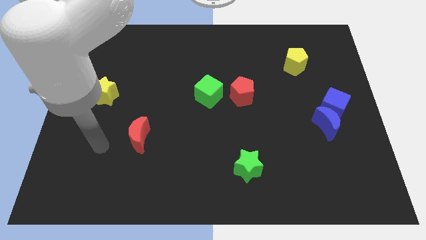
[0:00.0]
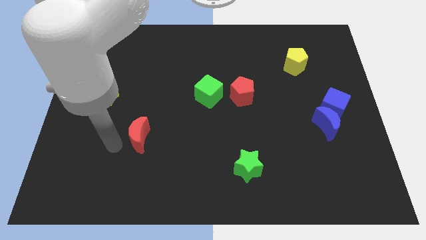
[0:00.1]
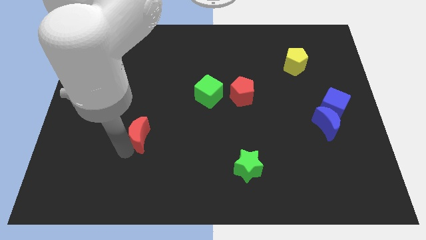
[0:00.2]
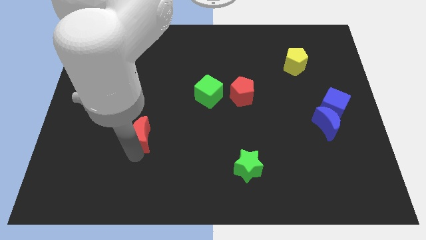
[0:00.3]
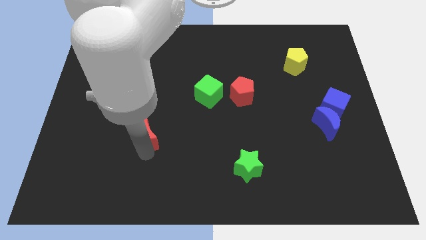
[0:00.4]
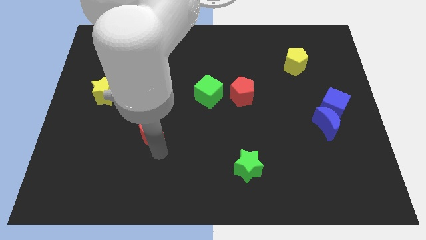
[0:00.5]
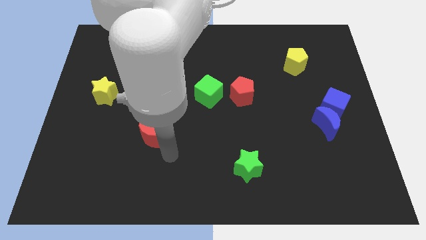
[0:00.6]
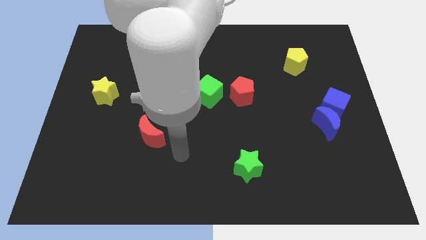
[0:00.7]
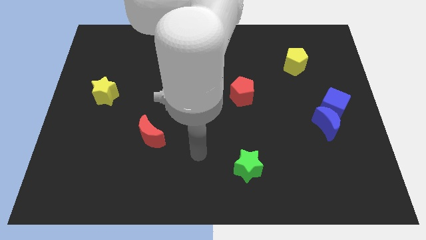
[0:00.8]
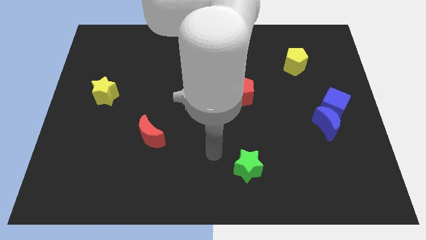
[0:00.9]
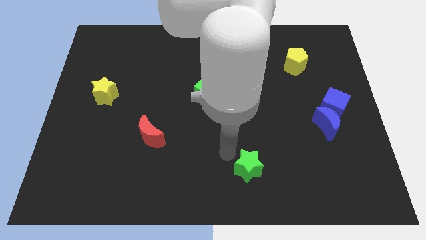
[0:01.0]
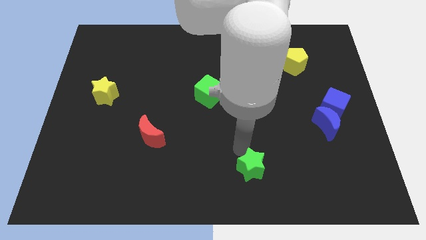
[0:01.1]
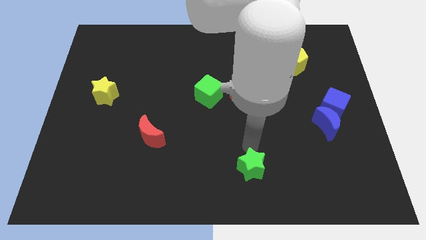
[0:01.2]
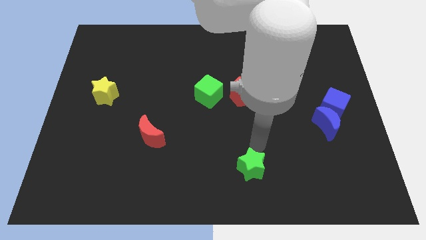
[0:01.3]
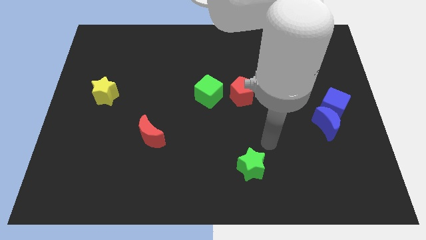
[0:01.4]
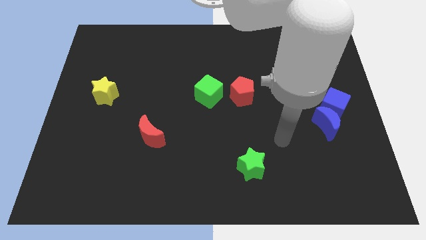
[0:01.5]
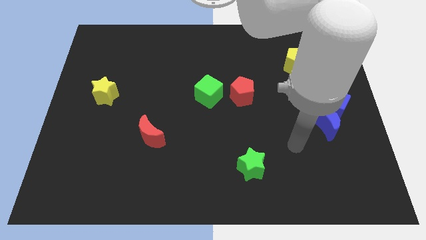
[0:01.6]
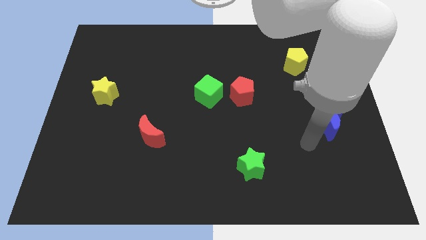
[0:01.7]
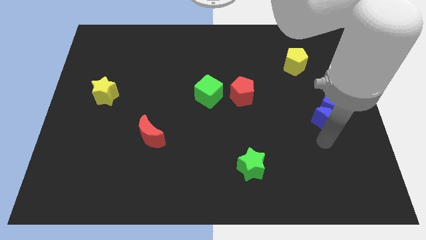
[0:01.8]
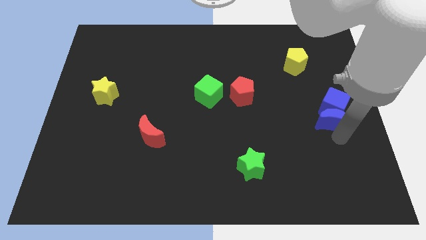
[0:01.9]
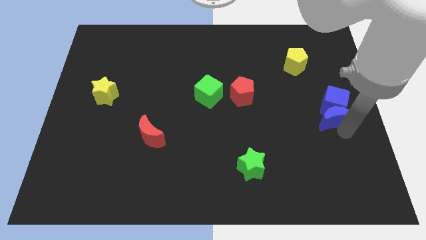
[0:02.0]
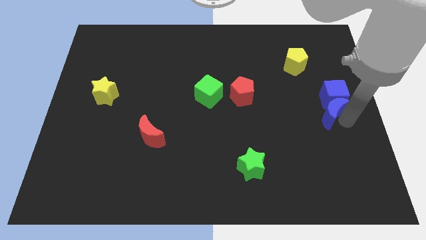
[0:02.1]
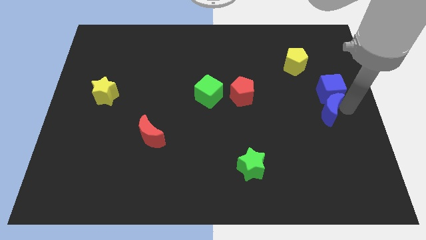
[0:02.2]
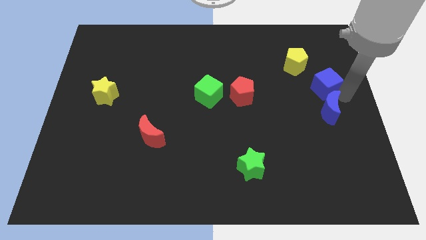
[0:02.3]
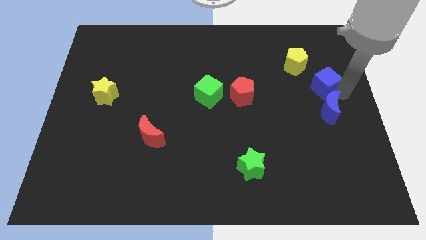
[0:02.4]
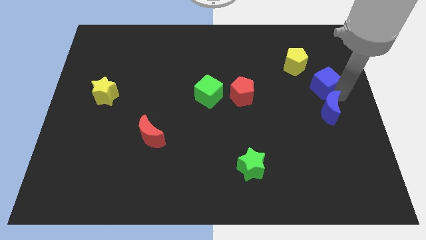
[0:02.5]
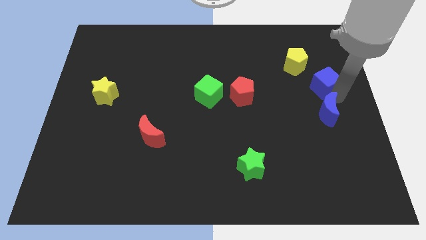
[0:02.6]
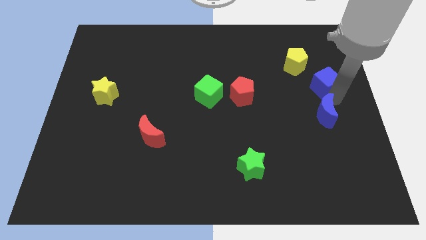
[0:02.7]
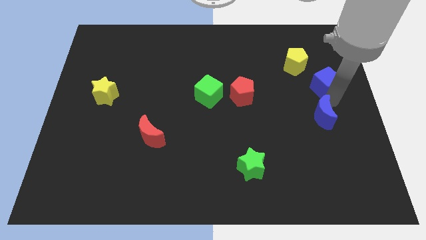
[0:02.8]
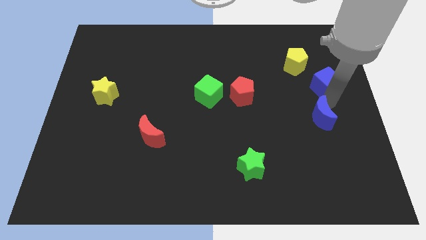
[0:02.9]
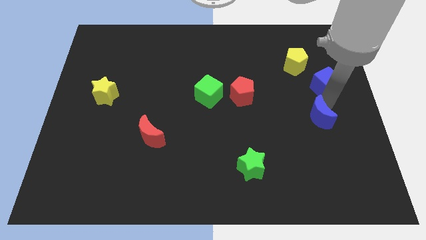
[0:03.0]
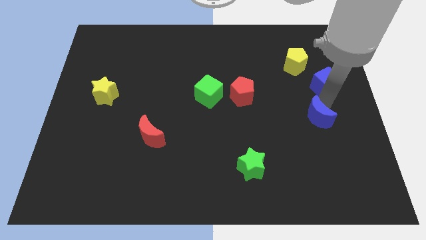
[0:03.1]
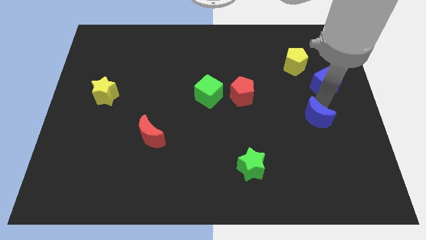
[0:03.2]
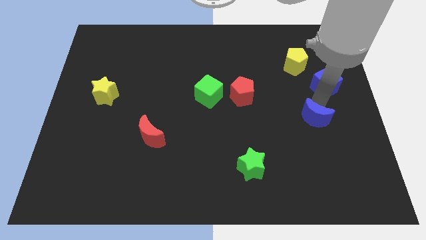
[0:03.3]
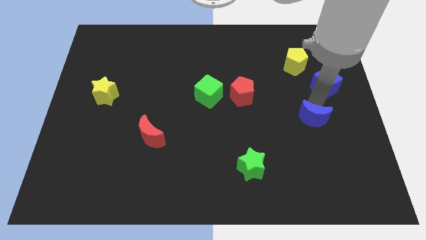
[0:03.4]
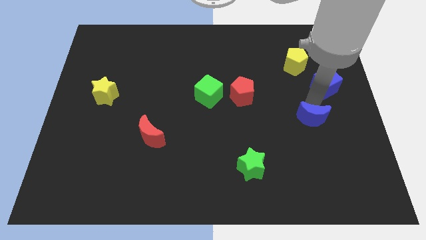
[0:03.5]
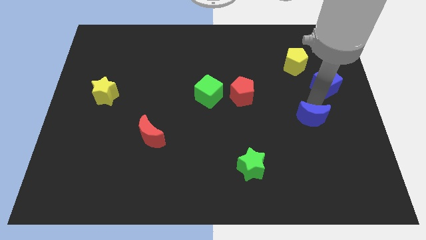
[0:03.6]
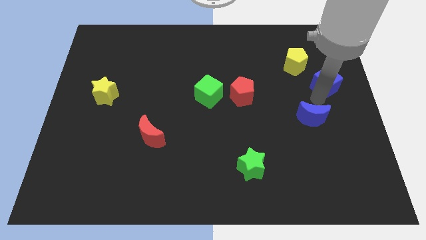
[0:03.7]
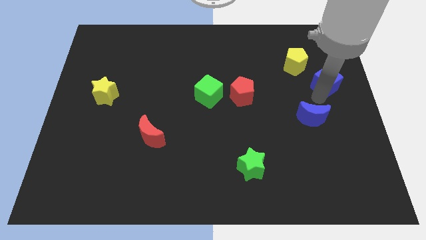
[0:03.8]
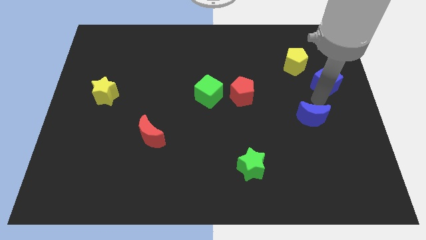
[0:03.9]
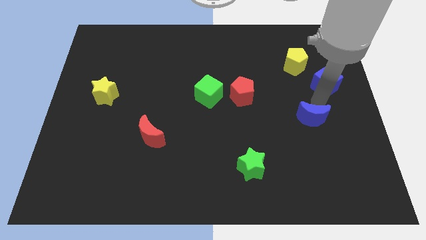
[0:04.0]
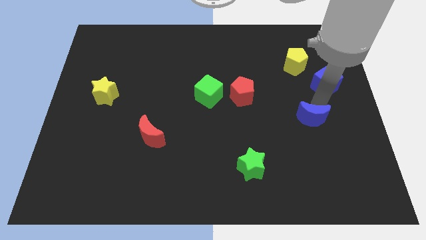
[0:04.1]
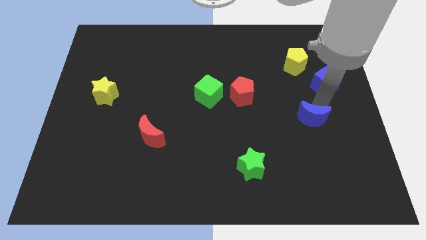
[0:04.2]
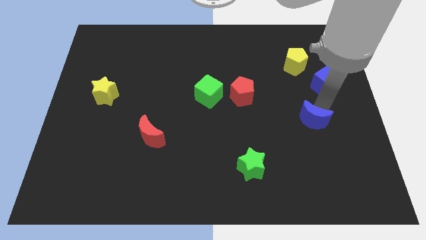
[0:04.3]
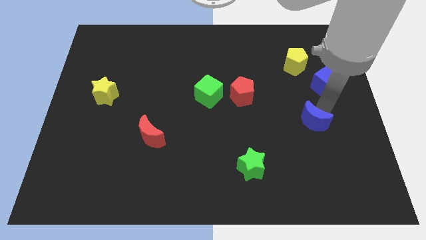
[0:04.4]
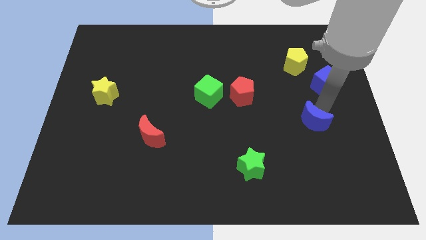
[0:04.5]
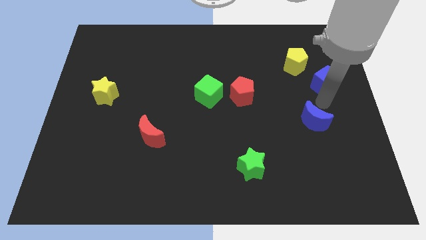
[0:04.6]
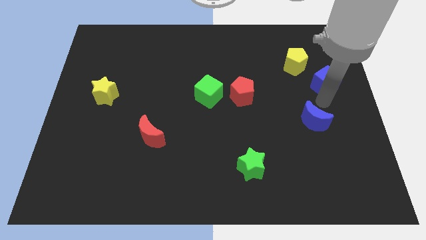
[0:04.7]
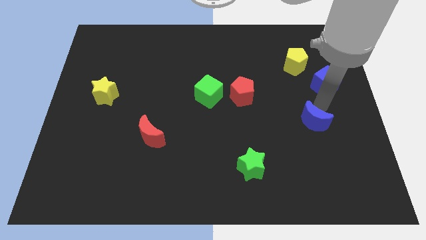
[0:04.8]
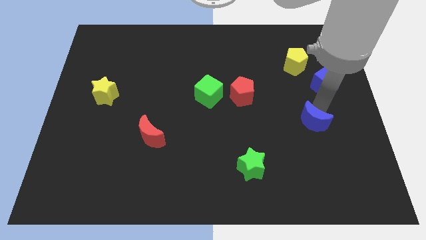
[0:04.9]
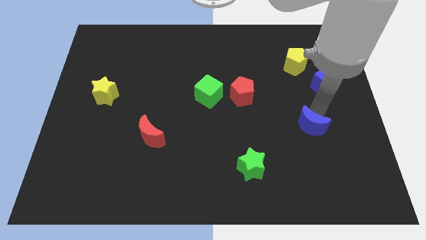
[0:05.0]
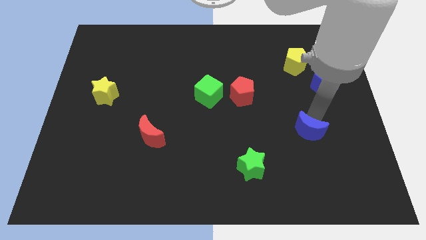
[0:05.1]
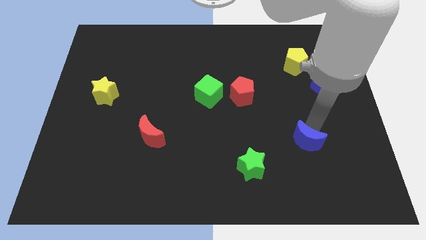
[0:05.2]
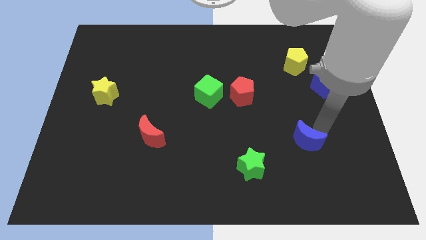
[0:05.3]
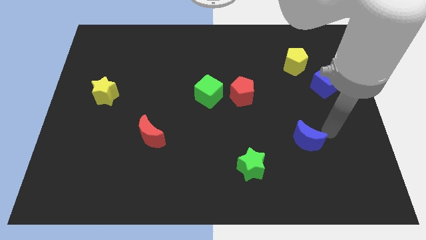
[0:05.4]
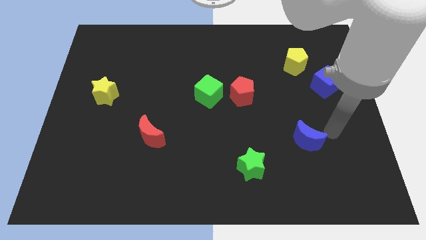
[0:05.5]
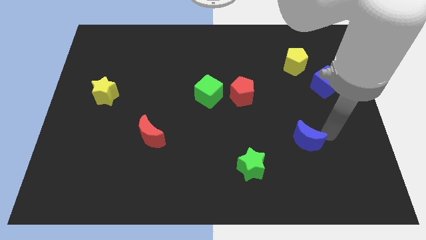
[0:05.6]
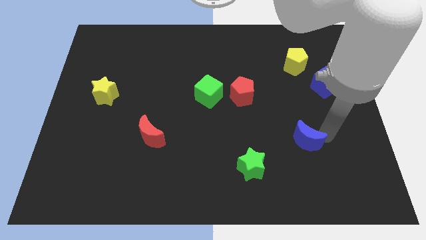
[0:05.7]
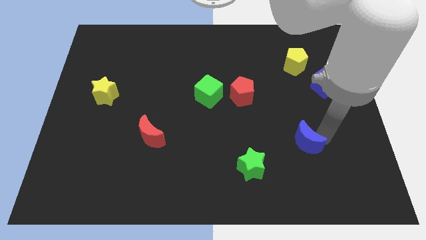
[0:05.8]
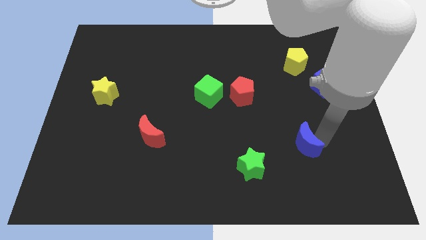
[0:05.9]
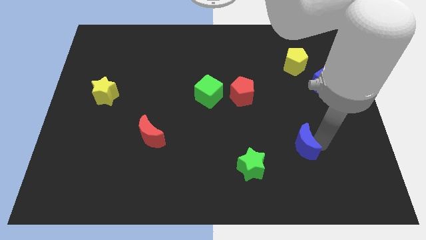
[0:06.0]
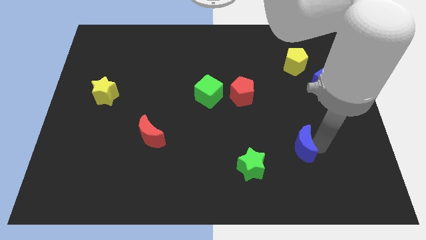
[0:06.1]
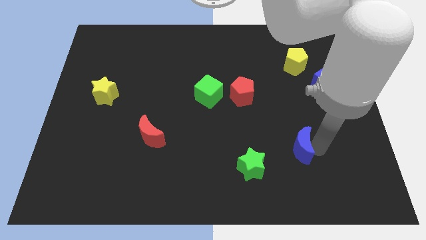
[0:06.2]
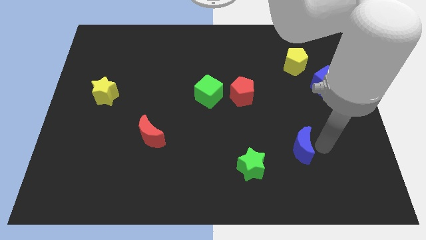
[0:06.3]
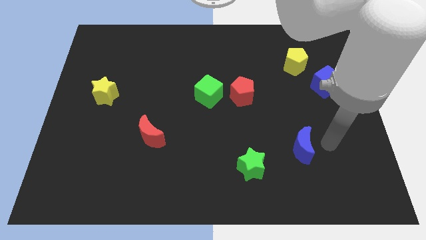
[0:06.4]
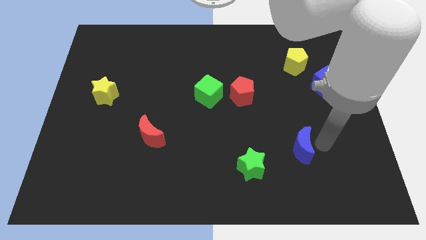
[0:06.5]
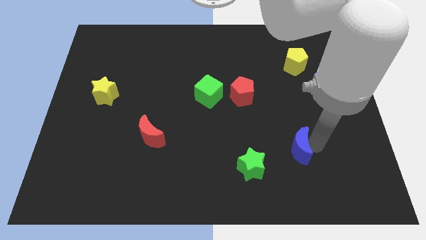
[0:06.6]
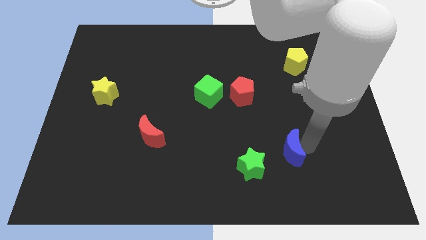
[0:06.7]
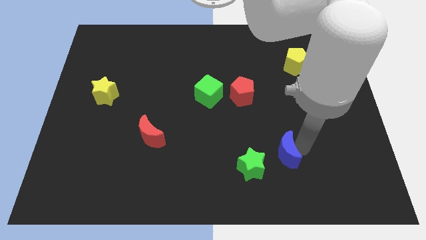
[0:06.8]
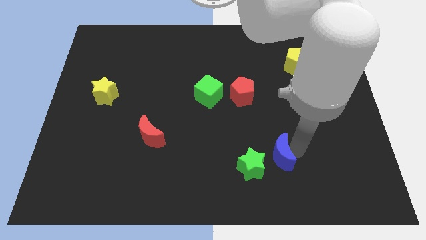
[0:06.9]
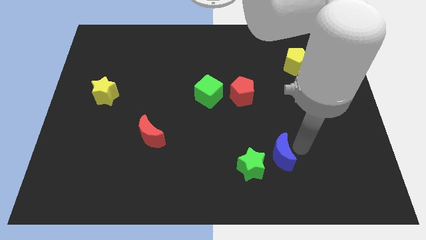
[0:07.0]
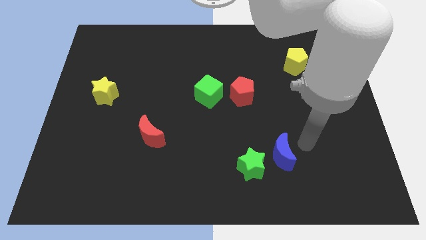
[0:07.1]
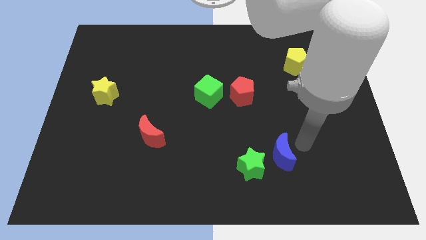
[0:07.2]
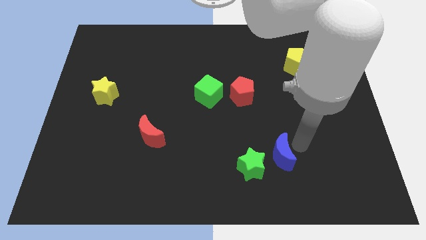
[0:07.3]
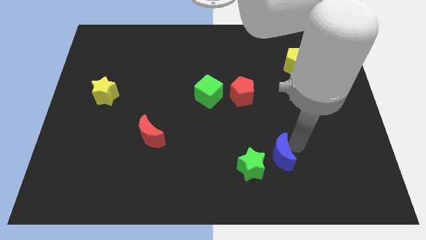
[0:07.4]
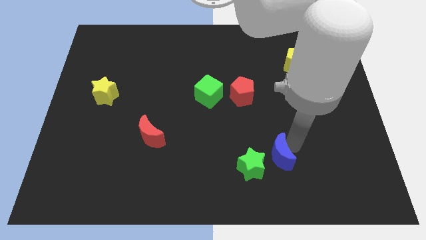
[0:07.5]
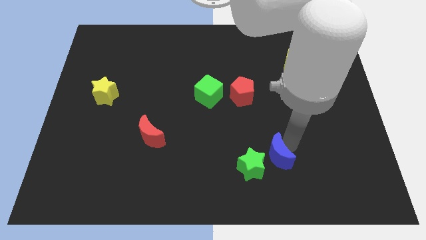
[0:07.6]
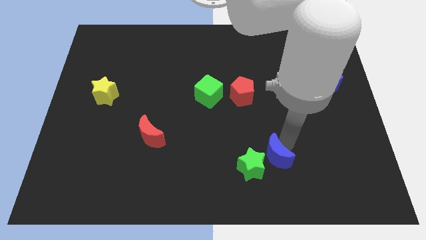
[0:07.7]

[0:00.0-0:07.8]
push the blue moon to the green star
